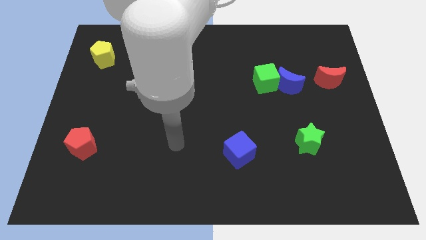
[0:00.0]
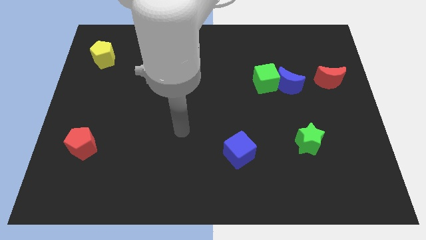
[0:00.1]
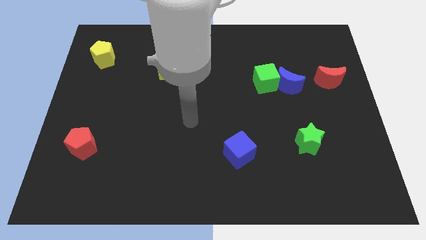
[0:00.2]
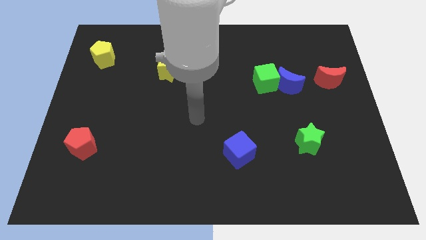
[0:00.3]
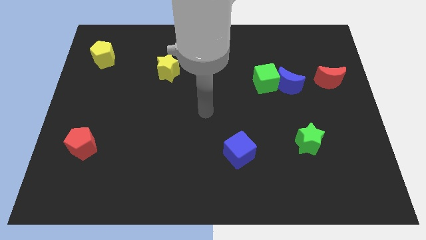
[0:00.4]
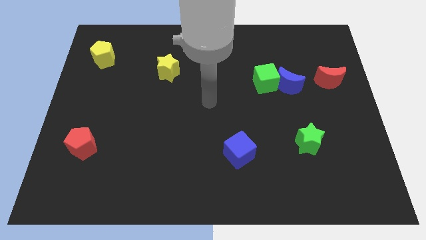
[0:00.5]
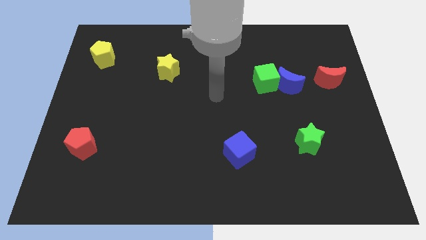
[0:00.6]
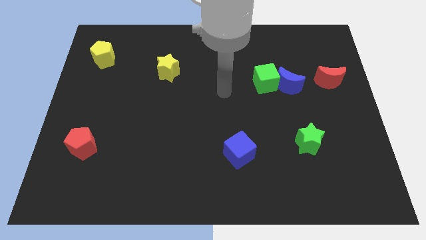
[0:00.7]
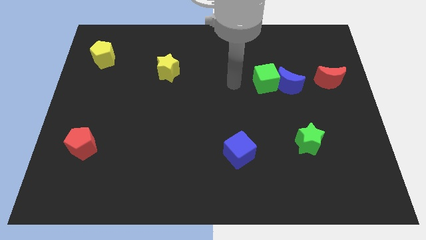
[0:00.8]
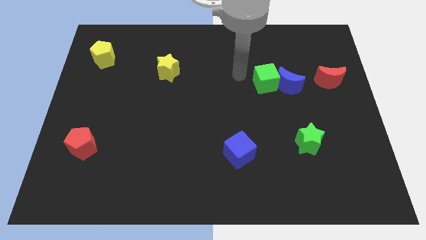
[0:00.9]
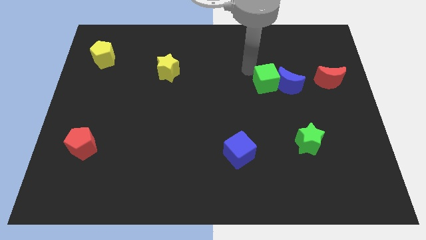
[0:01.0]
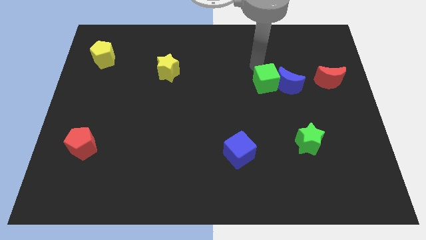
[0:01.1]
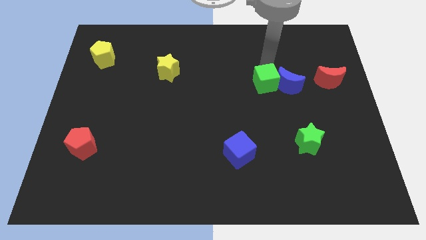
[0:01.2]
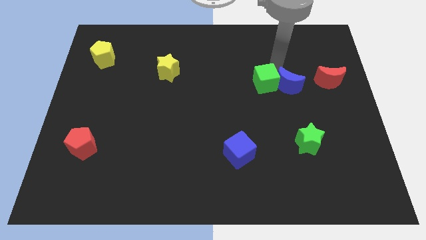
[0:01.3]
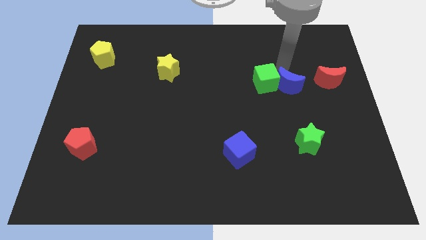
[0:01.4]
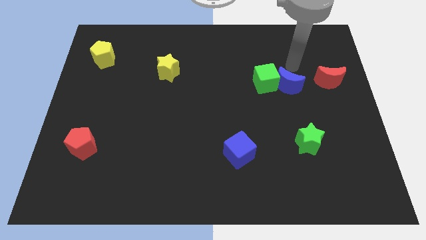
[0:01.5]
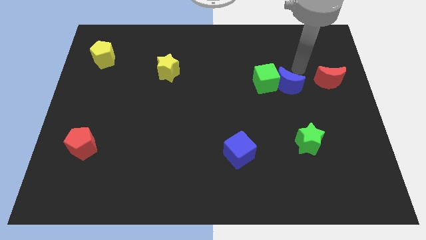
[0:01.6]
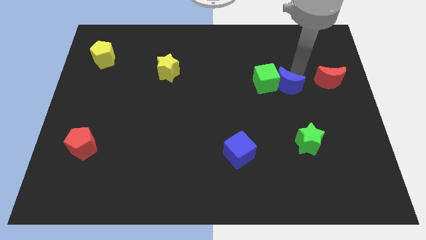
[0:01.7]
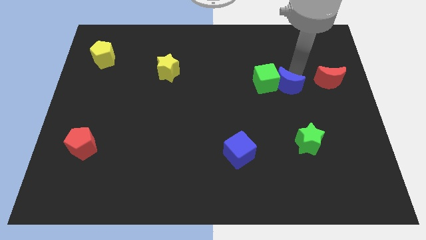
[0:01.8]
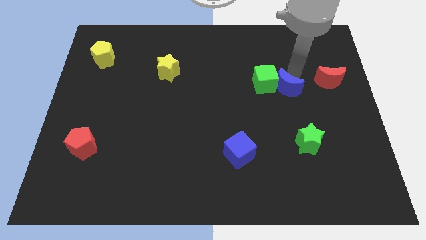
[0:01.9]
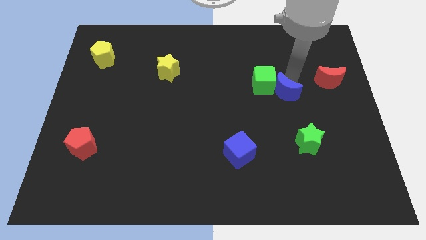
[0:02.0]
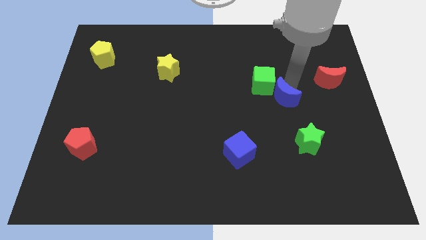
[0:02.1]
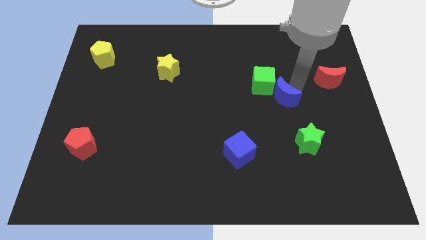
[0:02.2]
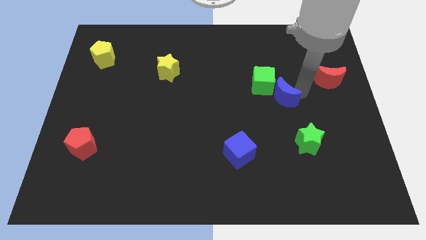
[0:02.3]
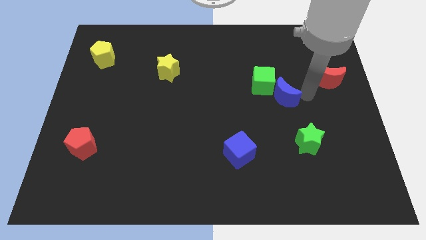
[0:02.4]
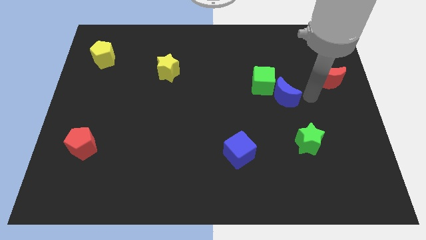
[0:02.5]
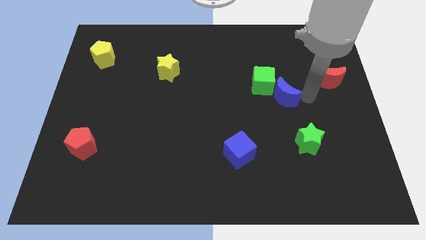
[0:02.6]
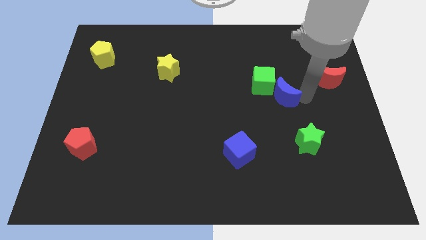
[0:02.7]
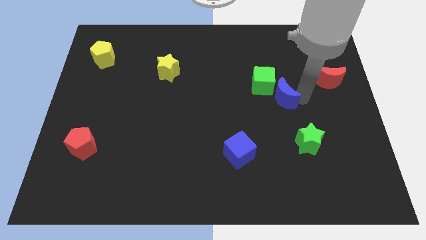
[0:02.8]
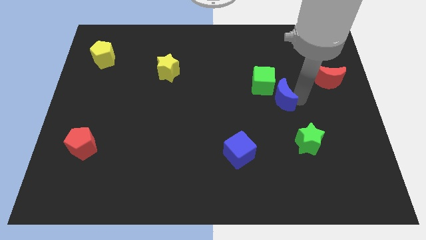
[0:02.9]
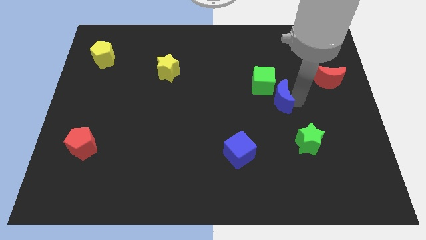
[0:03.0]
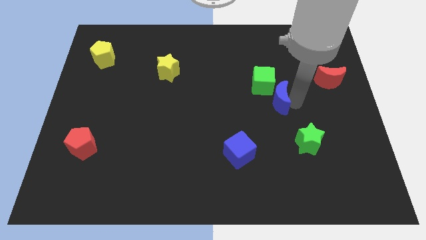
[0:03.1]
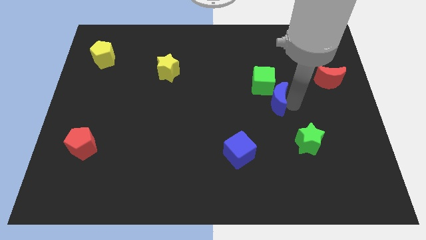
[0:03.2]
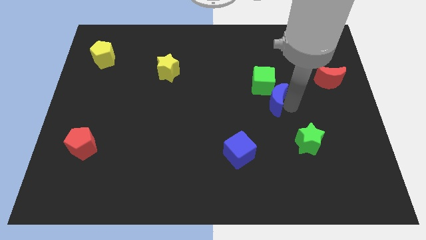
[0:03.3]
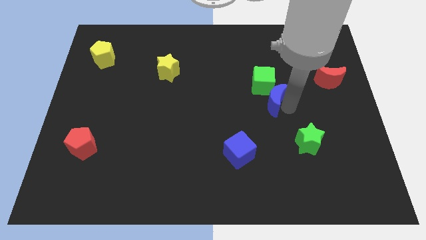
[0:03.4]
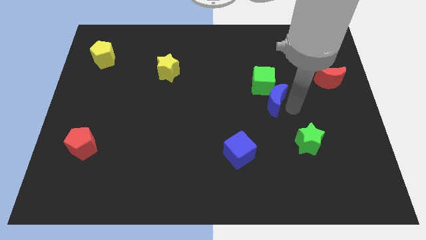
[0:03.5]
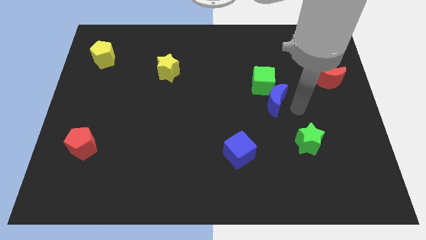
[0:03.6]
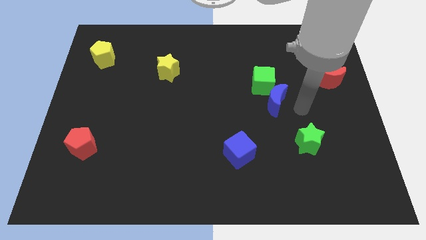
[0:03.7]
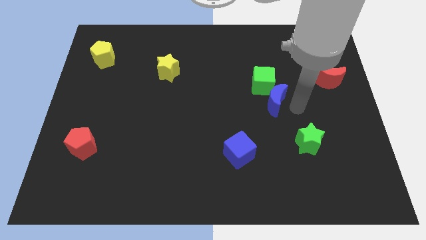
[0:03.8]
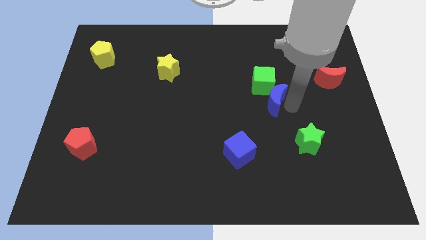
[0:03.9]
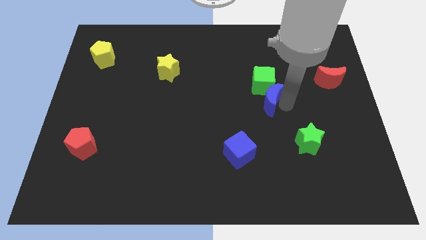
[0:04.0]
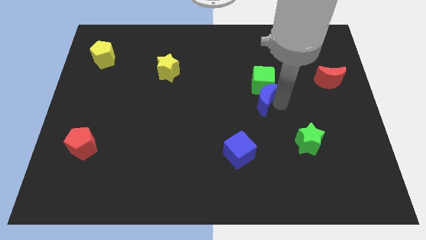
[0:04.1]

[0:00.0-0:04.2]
slide the blue moon to the center

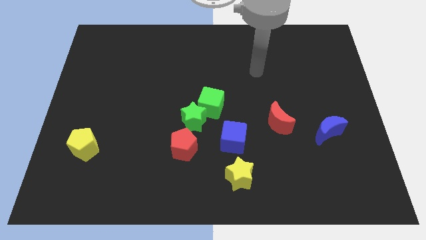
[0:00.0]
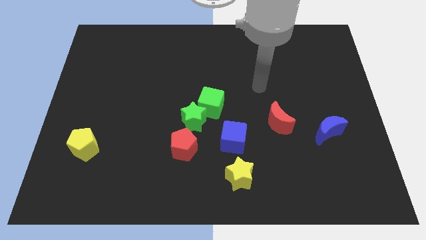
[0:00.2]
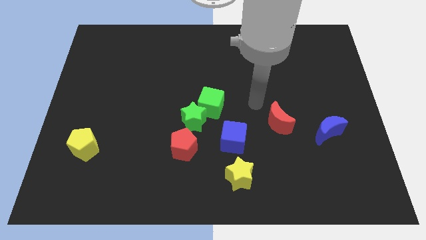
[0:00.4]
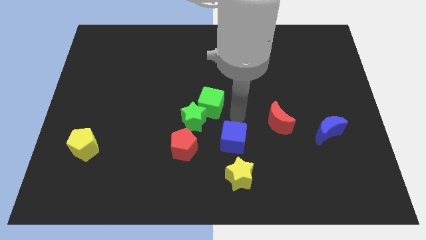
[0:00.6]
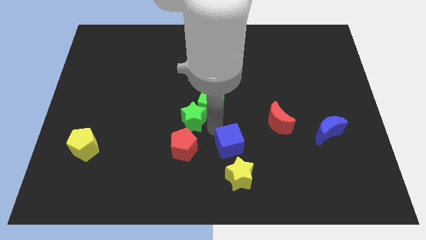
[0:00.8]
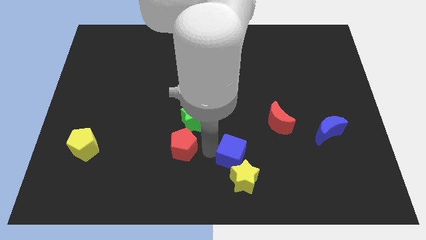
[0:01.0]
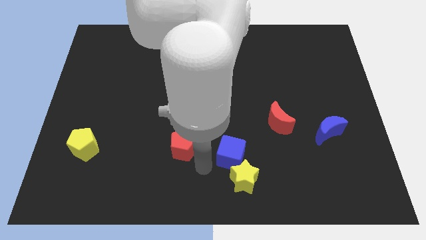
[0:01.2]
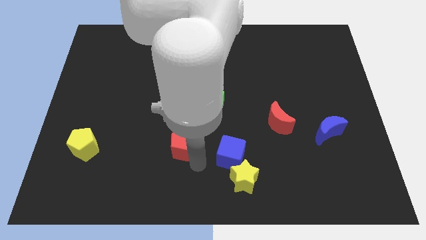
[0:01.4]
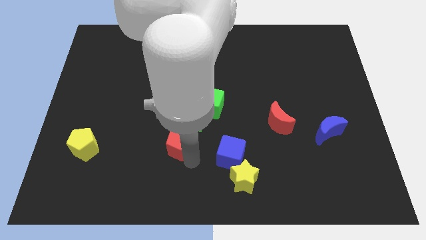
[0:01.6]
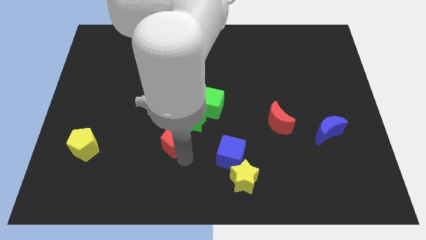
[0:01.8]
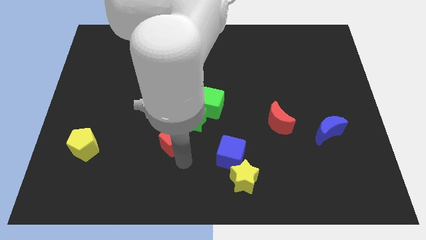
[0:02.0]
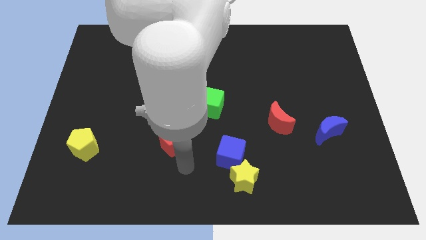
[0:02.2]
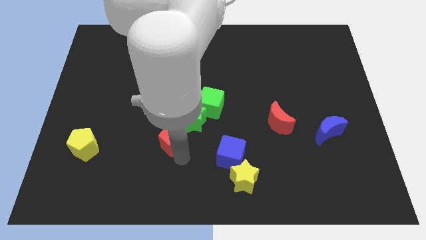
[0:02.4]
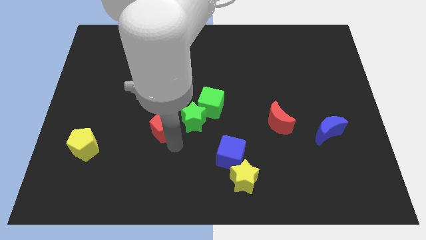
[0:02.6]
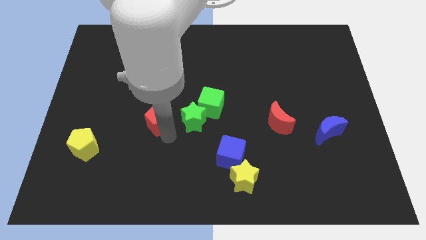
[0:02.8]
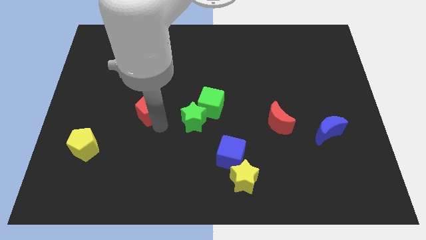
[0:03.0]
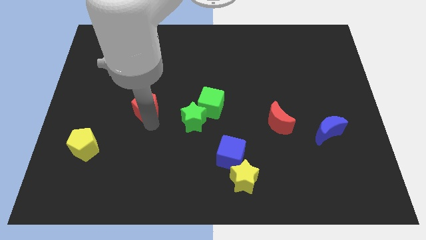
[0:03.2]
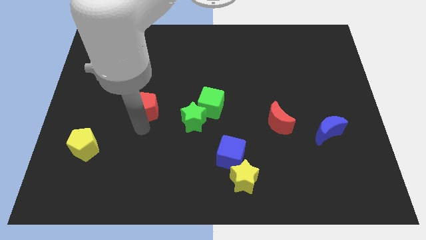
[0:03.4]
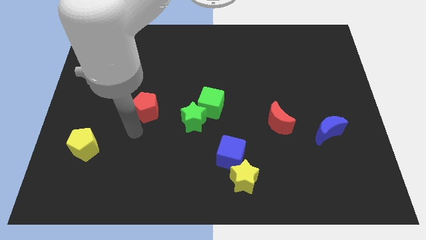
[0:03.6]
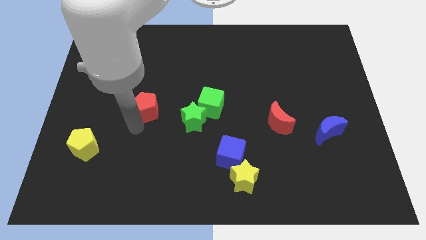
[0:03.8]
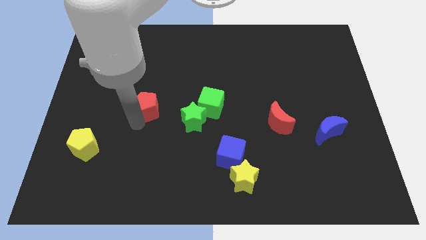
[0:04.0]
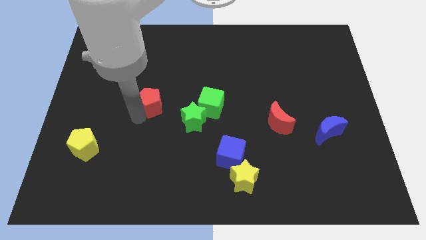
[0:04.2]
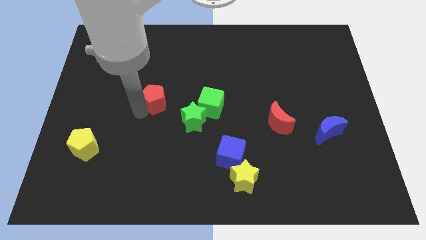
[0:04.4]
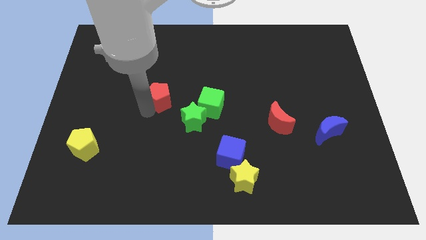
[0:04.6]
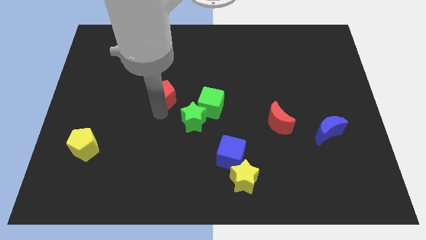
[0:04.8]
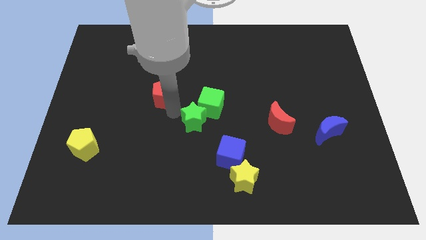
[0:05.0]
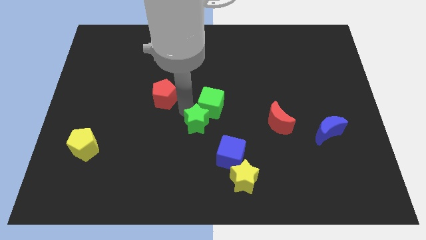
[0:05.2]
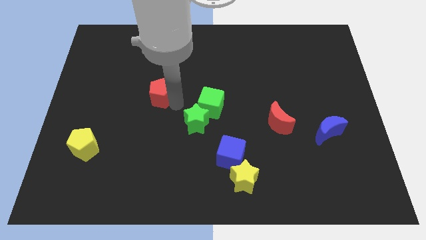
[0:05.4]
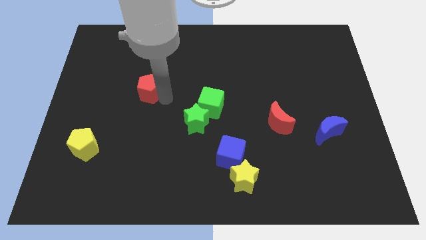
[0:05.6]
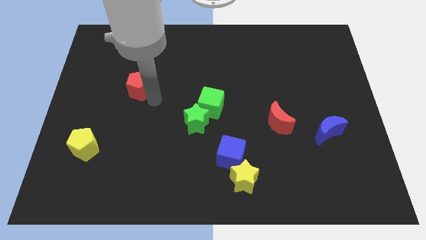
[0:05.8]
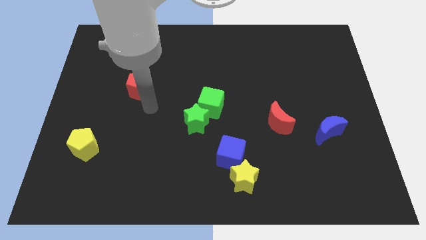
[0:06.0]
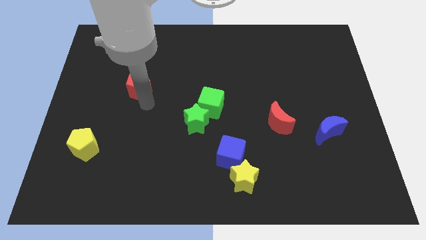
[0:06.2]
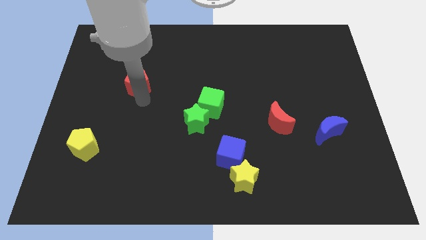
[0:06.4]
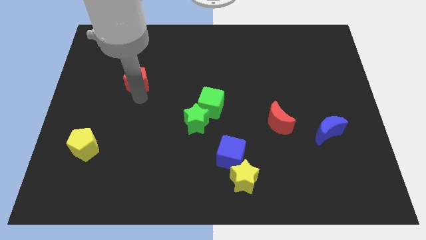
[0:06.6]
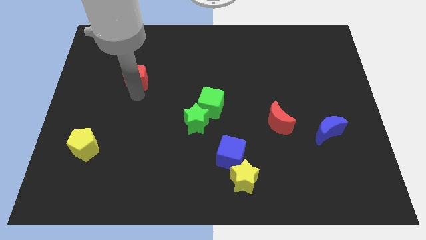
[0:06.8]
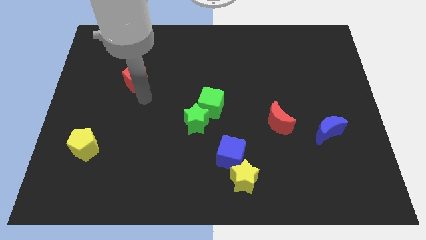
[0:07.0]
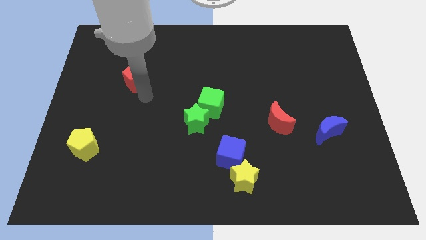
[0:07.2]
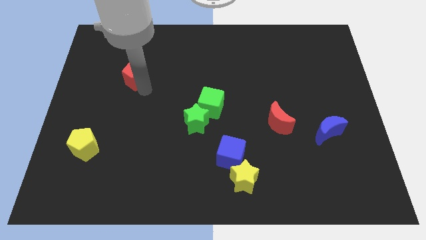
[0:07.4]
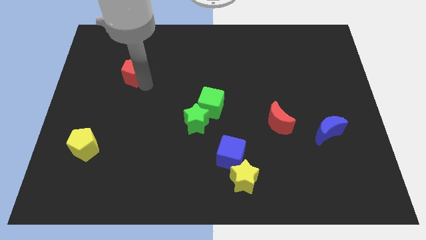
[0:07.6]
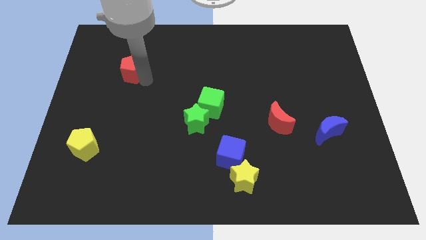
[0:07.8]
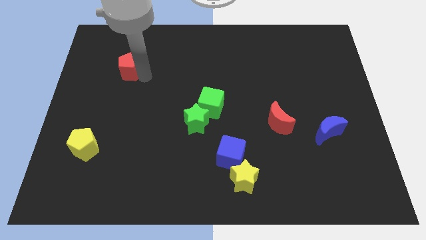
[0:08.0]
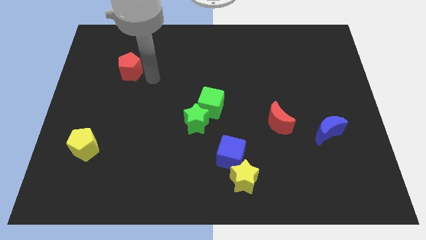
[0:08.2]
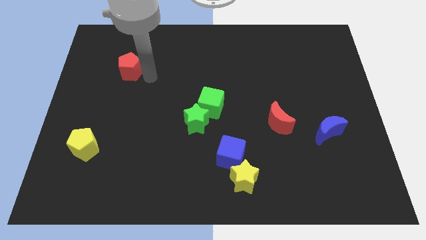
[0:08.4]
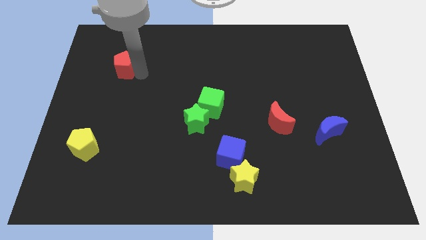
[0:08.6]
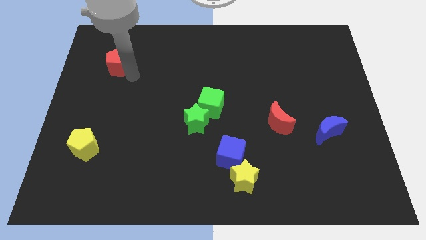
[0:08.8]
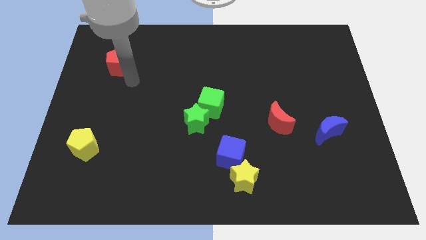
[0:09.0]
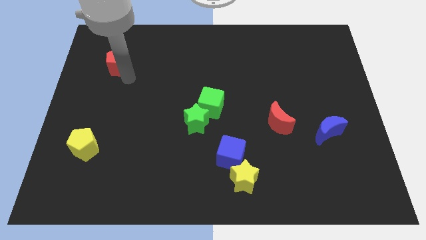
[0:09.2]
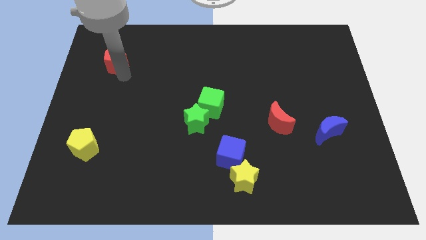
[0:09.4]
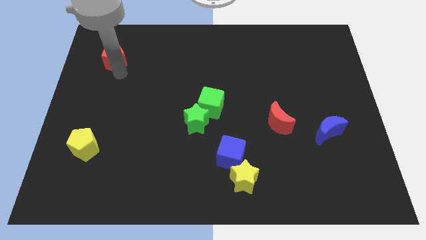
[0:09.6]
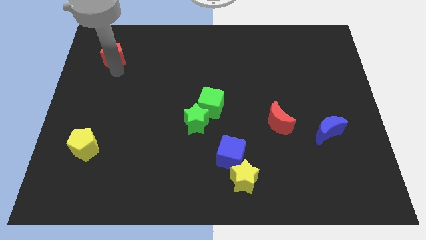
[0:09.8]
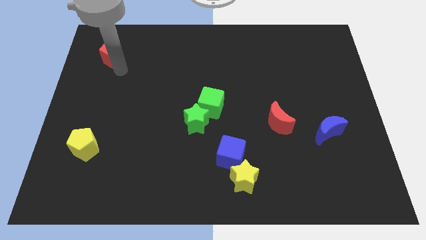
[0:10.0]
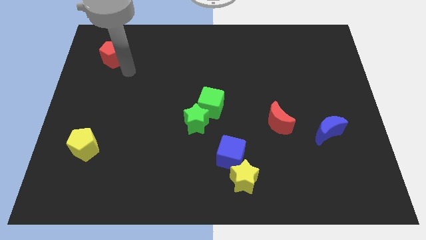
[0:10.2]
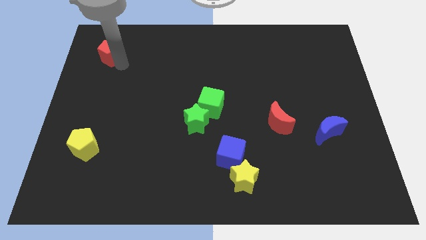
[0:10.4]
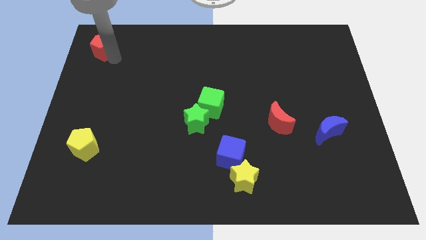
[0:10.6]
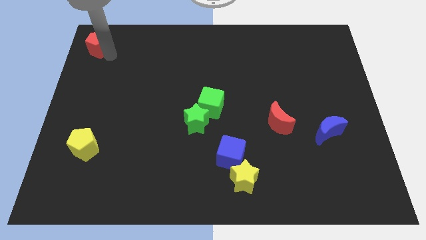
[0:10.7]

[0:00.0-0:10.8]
slide the red pentagon to the top left
